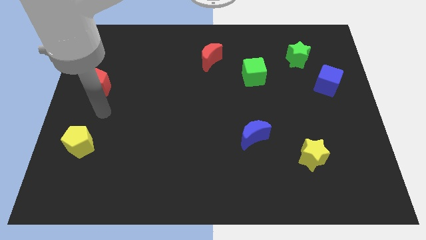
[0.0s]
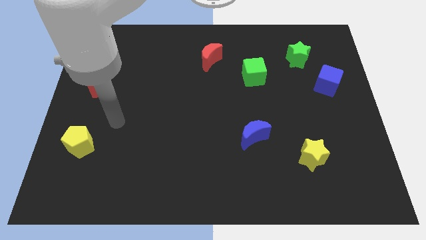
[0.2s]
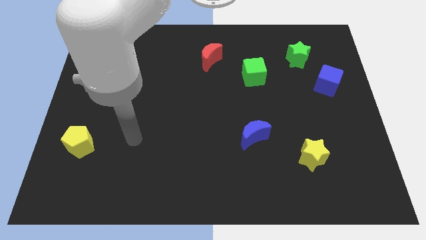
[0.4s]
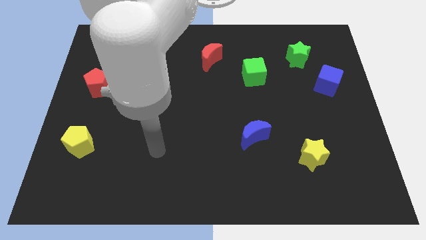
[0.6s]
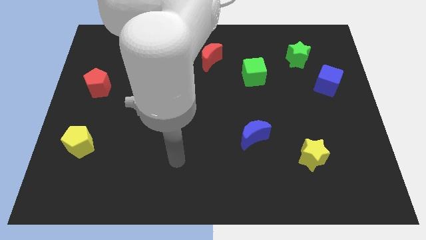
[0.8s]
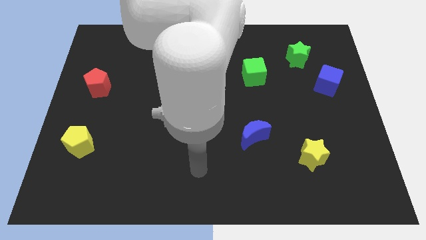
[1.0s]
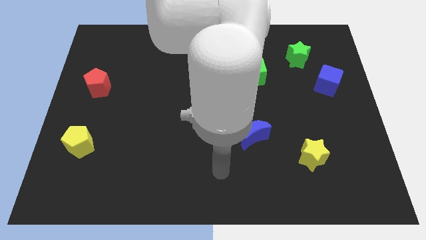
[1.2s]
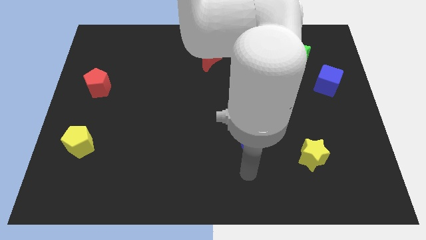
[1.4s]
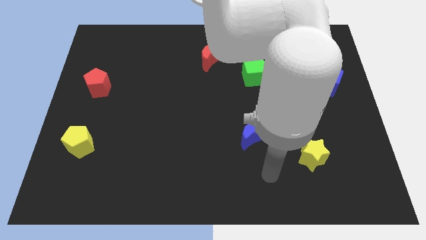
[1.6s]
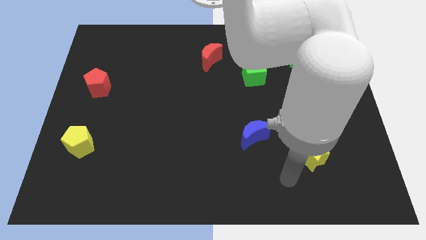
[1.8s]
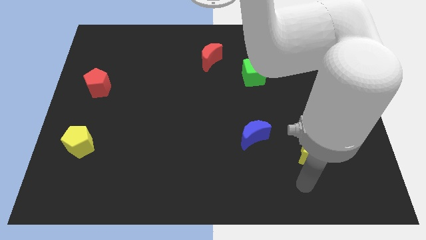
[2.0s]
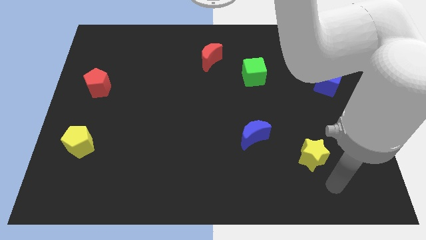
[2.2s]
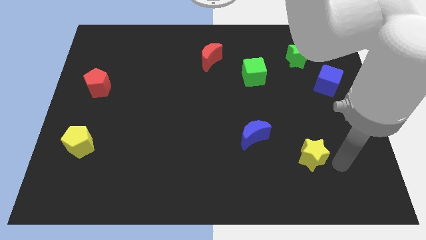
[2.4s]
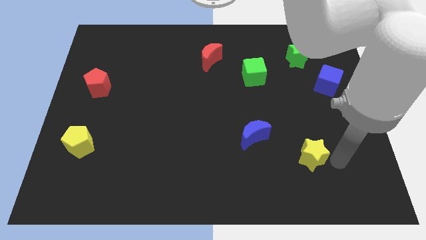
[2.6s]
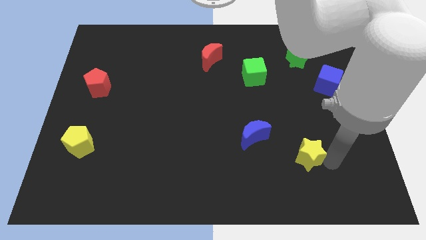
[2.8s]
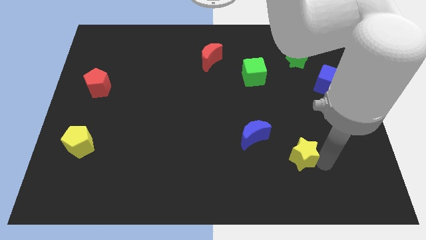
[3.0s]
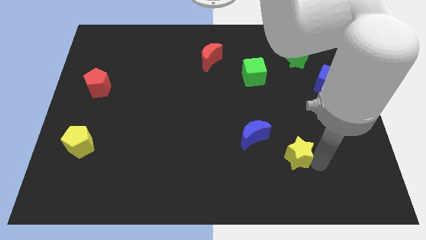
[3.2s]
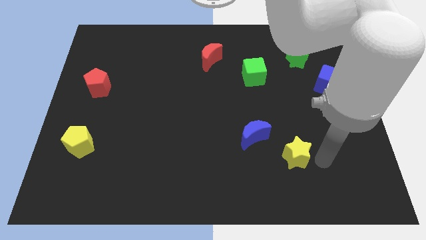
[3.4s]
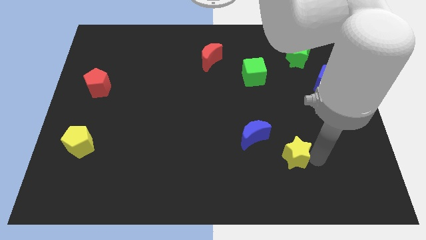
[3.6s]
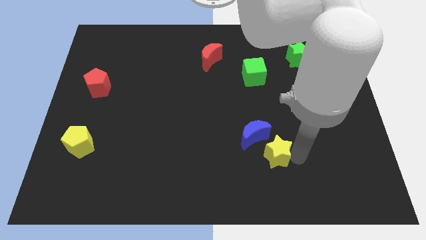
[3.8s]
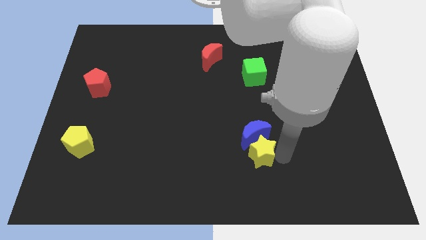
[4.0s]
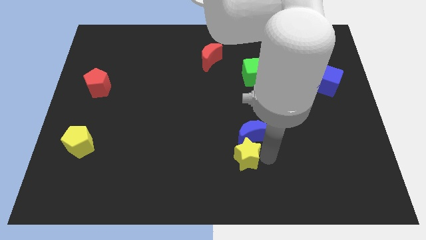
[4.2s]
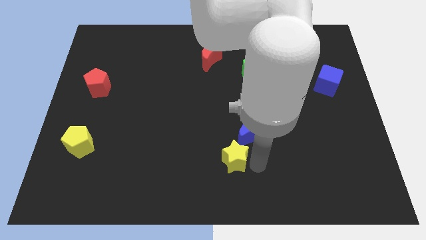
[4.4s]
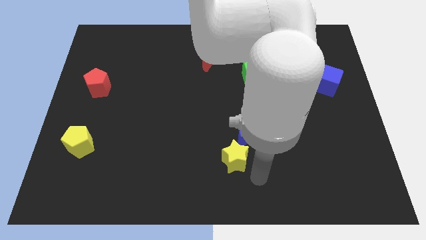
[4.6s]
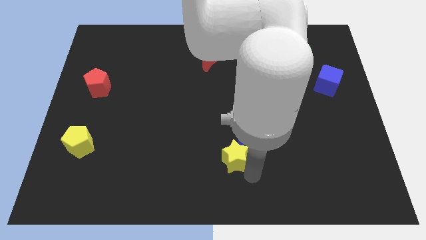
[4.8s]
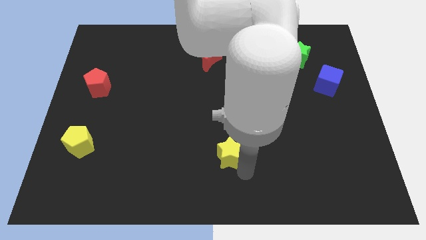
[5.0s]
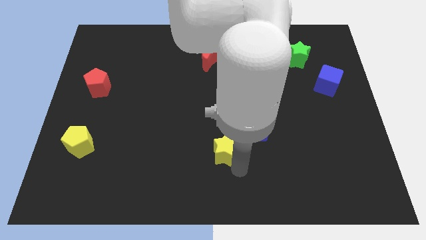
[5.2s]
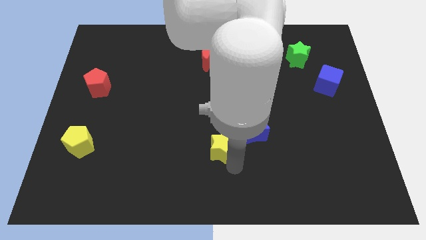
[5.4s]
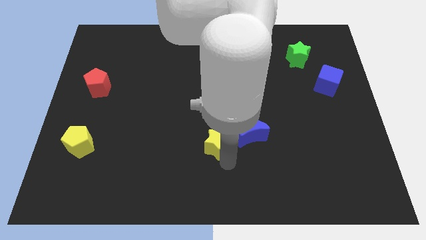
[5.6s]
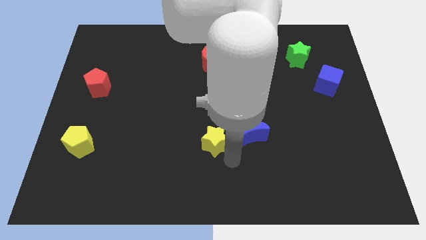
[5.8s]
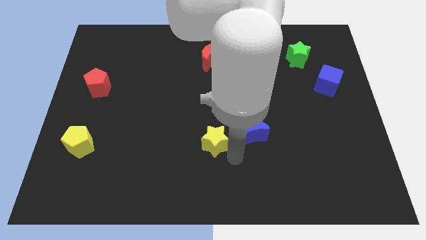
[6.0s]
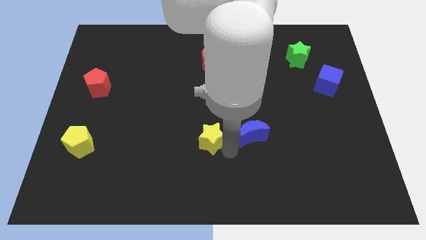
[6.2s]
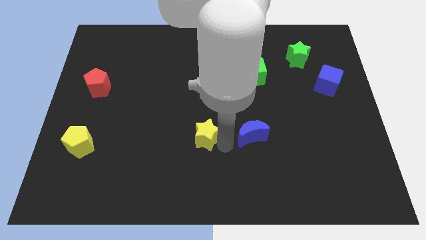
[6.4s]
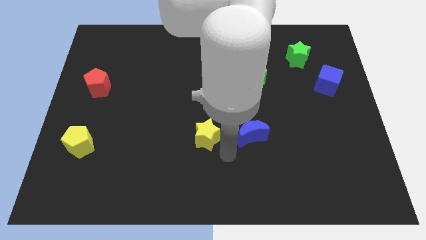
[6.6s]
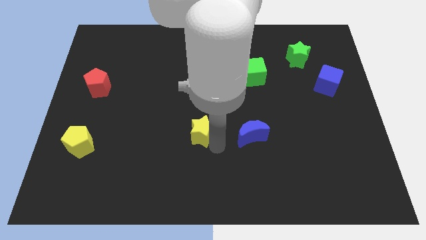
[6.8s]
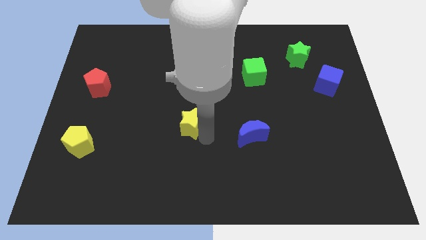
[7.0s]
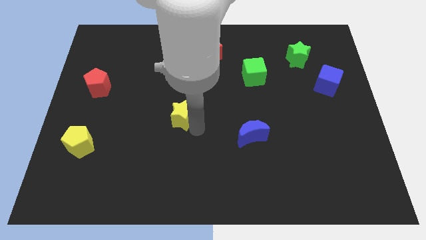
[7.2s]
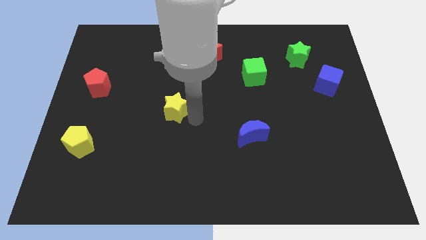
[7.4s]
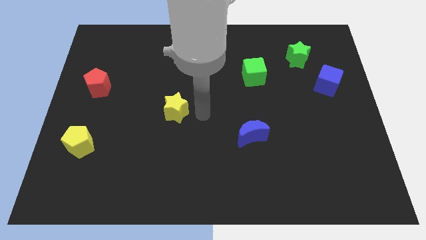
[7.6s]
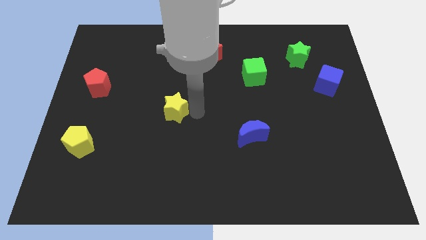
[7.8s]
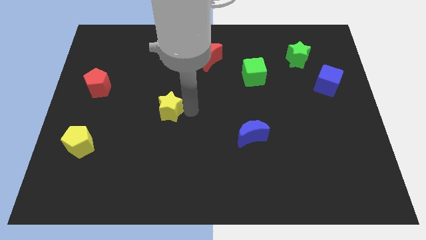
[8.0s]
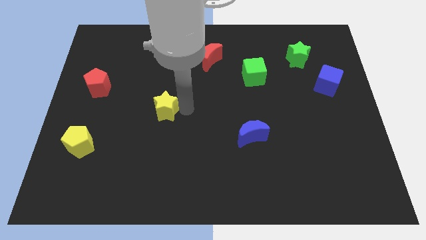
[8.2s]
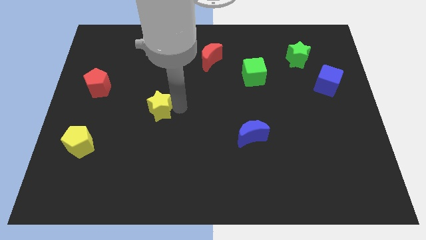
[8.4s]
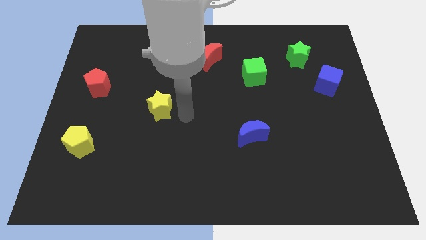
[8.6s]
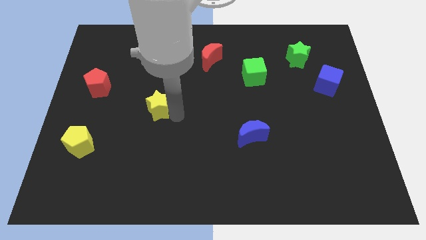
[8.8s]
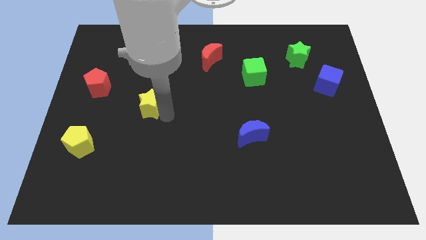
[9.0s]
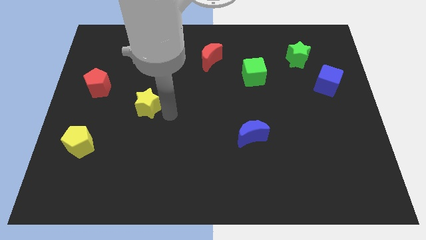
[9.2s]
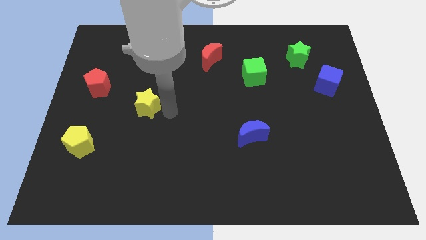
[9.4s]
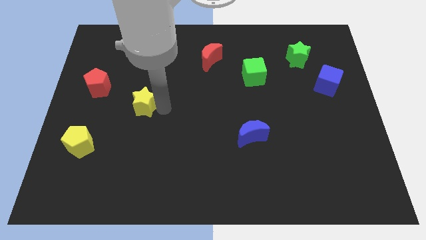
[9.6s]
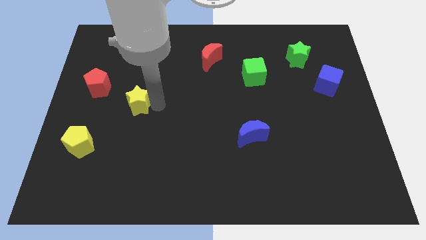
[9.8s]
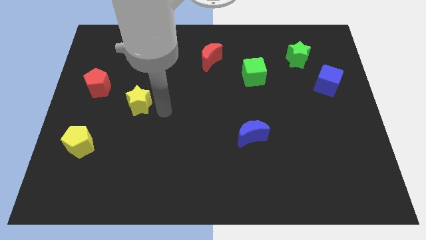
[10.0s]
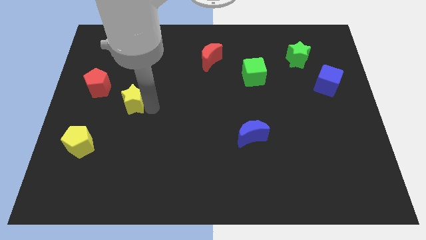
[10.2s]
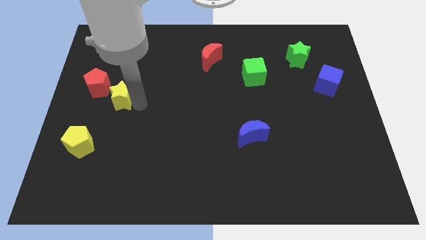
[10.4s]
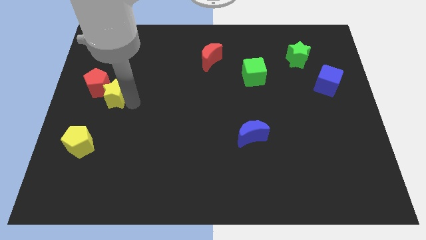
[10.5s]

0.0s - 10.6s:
move the yellow star to the red pentagon

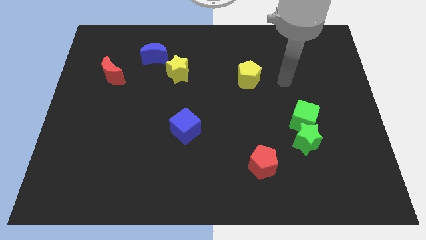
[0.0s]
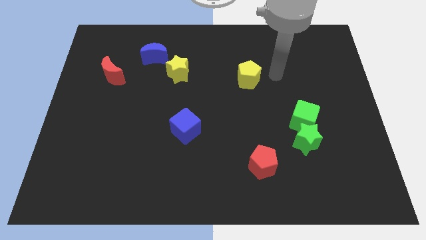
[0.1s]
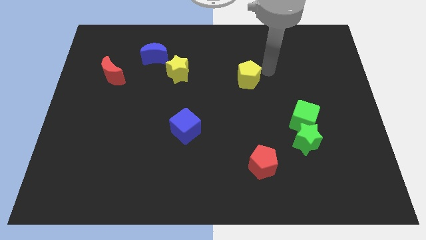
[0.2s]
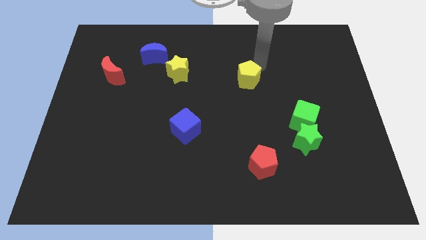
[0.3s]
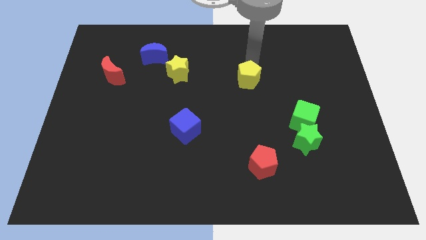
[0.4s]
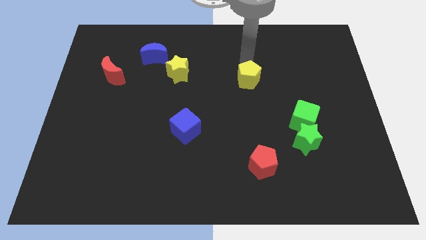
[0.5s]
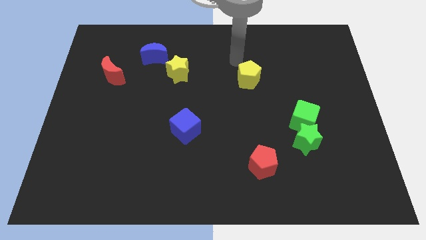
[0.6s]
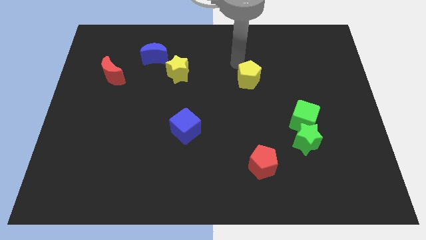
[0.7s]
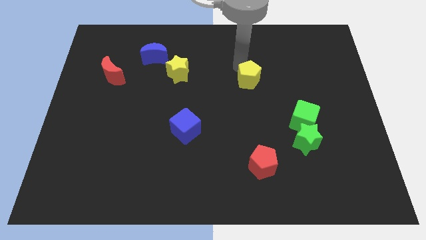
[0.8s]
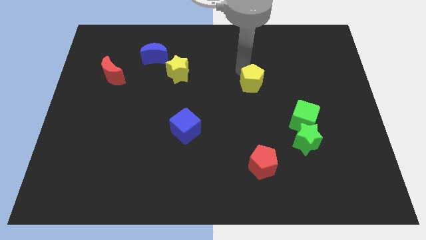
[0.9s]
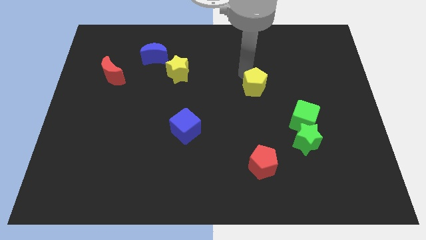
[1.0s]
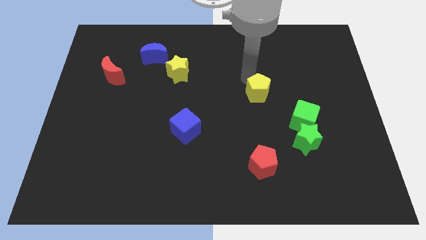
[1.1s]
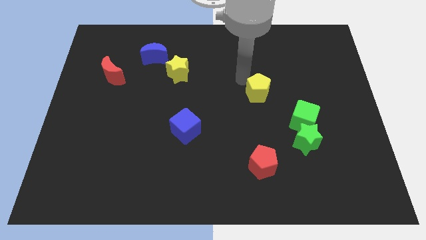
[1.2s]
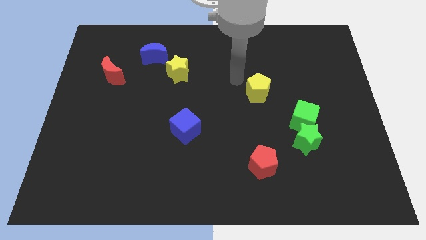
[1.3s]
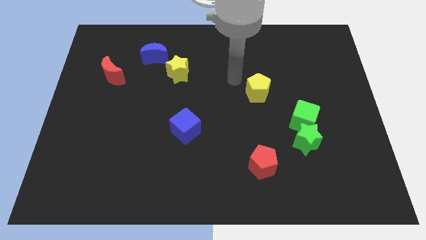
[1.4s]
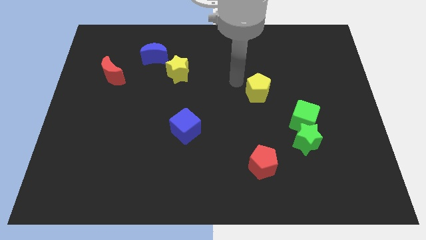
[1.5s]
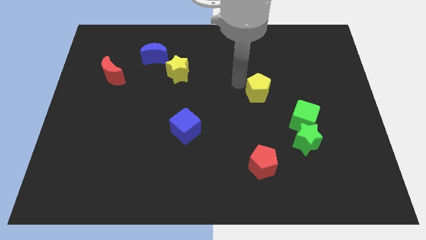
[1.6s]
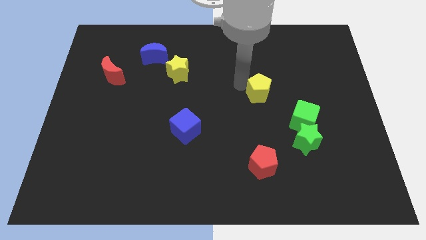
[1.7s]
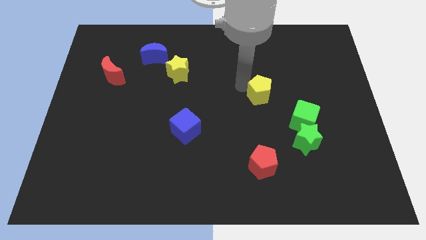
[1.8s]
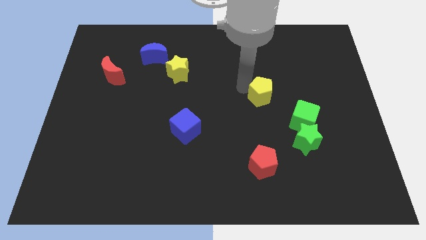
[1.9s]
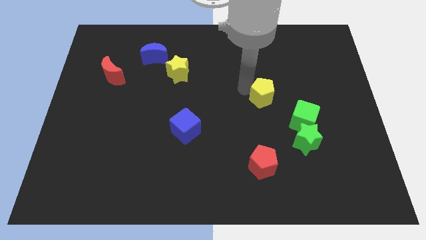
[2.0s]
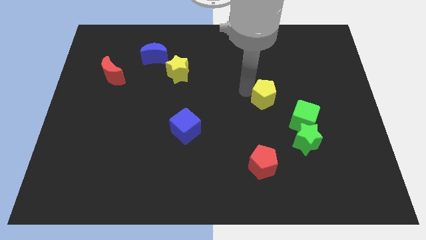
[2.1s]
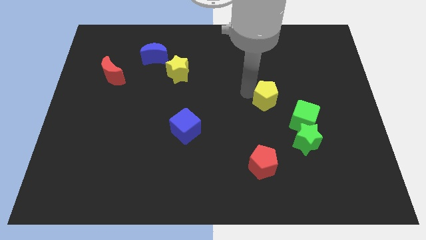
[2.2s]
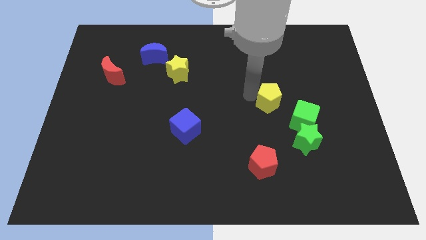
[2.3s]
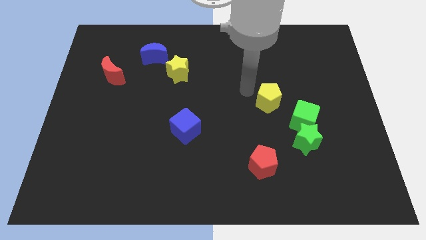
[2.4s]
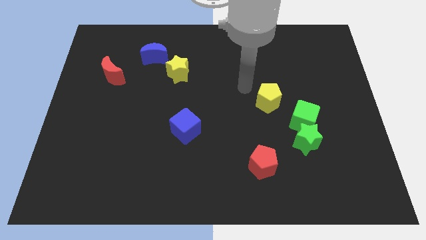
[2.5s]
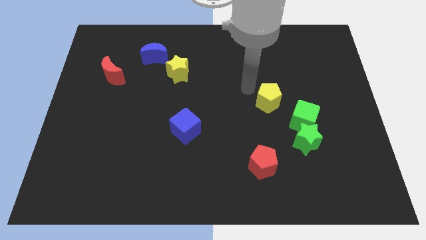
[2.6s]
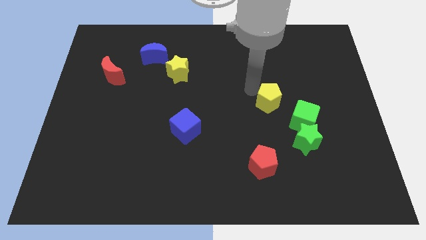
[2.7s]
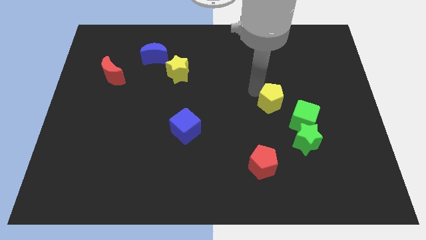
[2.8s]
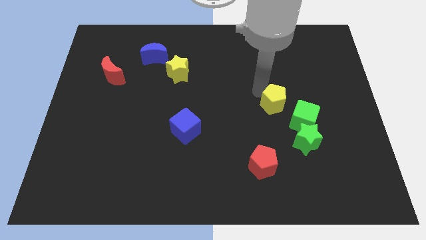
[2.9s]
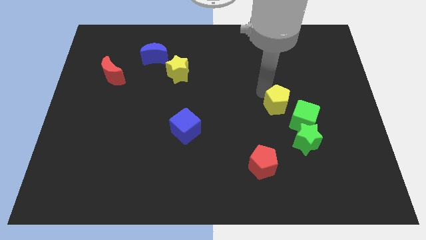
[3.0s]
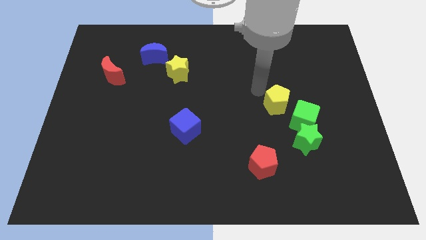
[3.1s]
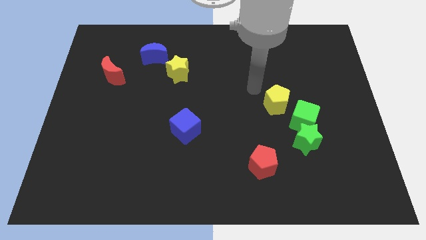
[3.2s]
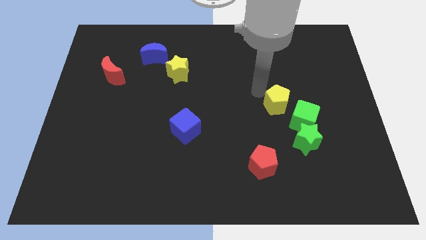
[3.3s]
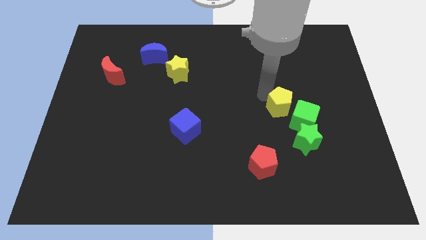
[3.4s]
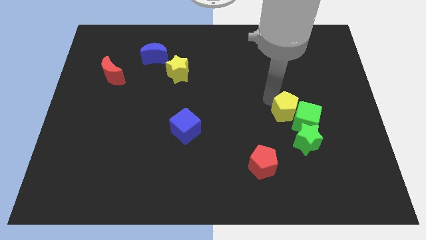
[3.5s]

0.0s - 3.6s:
move the yellow pentagon towards the green cube
